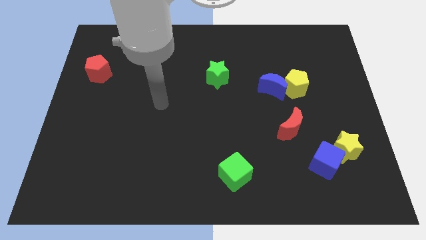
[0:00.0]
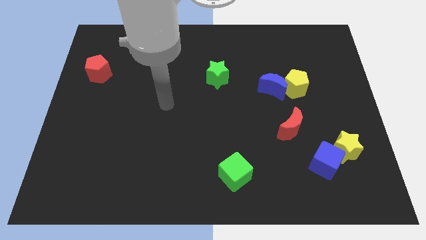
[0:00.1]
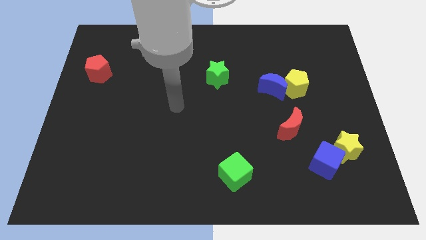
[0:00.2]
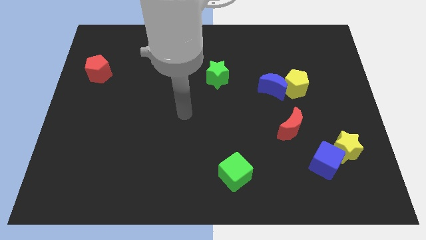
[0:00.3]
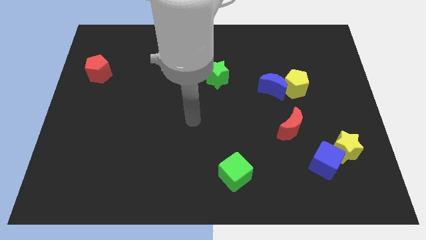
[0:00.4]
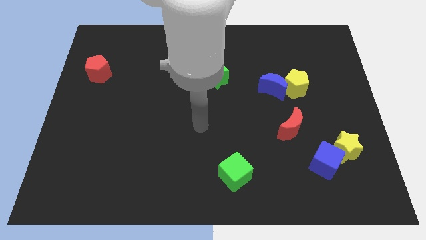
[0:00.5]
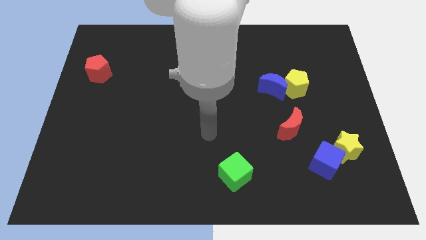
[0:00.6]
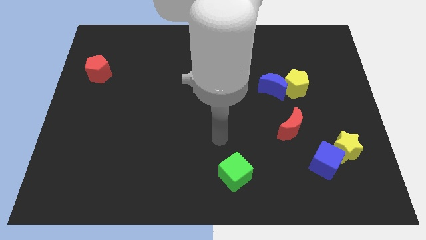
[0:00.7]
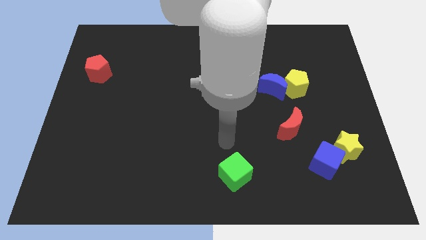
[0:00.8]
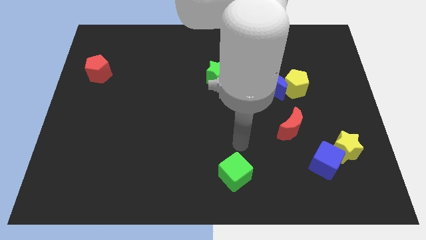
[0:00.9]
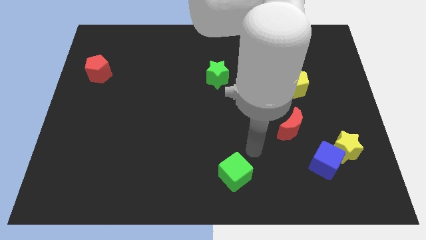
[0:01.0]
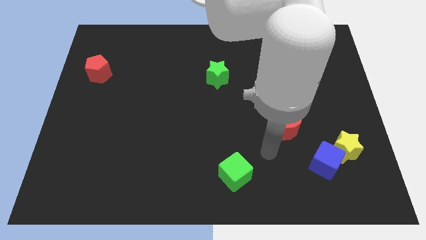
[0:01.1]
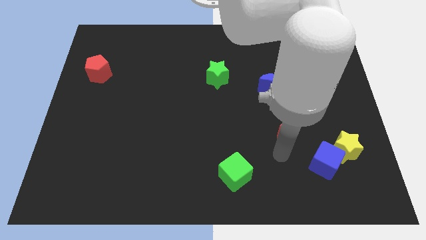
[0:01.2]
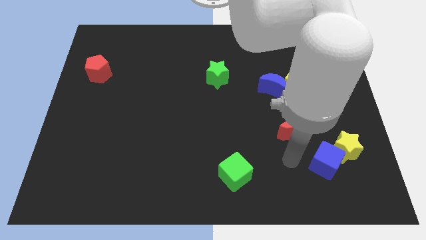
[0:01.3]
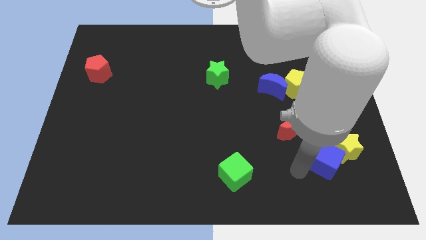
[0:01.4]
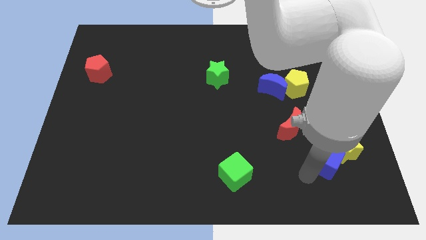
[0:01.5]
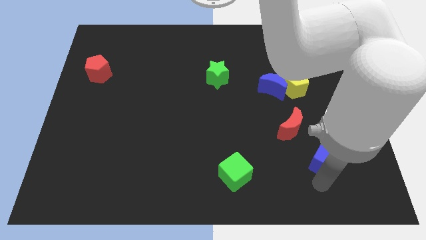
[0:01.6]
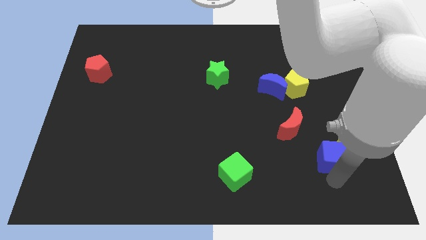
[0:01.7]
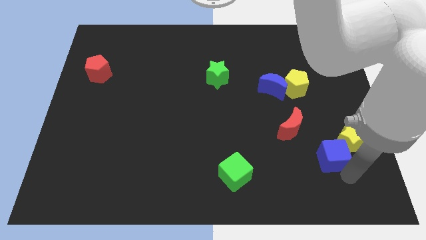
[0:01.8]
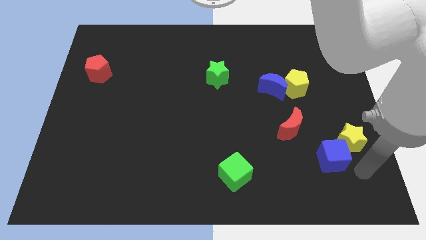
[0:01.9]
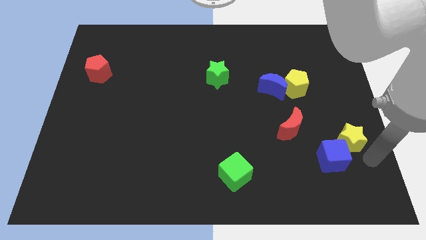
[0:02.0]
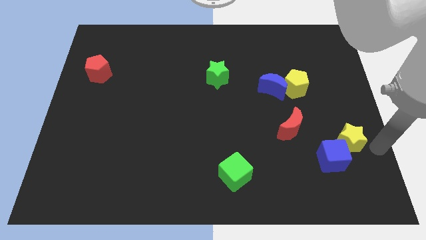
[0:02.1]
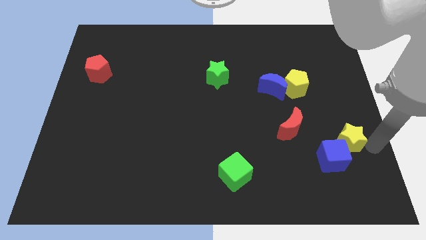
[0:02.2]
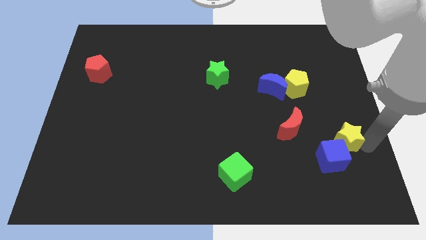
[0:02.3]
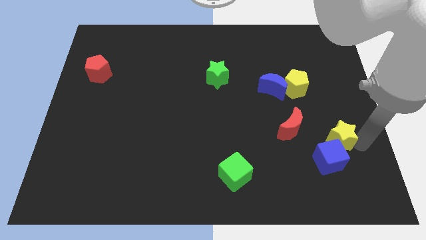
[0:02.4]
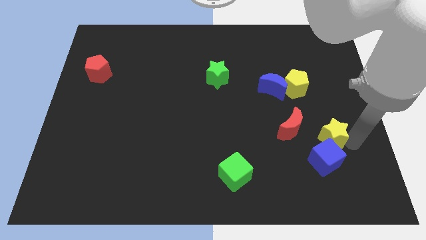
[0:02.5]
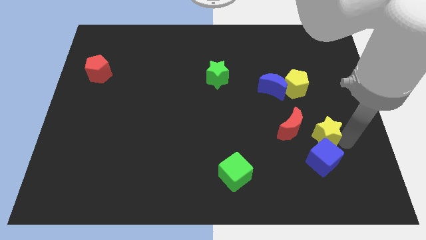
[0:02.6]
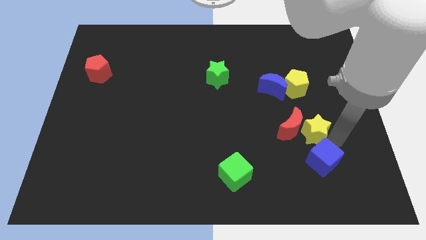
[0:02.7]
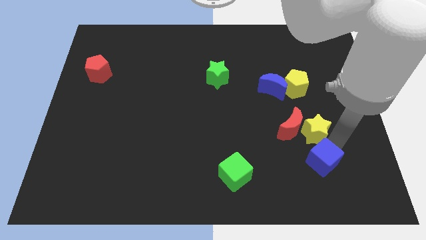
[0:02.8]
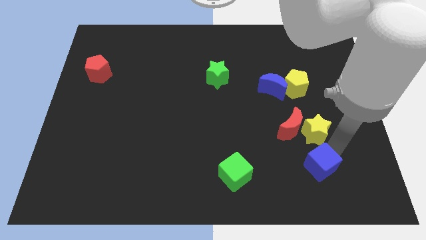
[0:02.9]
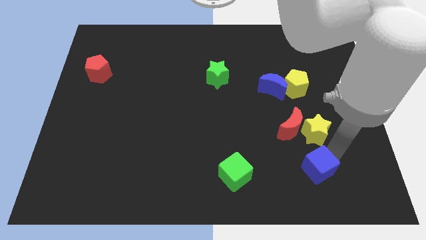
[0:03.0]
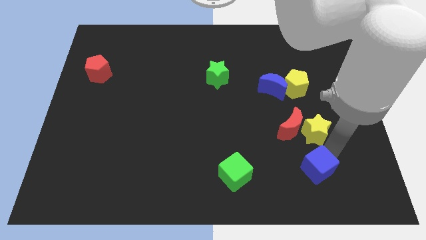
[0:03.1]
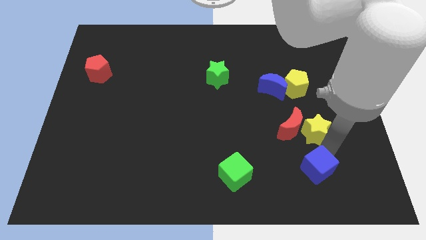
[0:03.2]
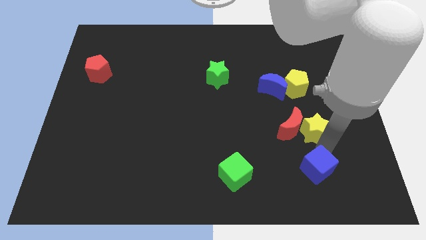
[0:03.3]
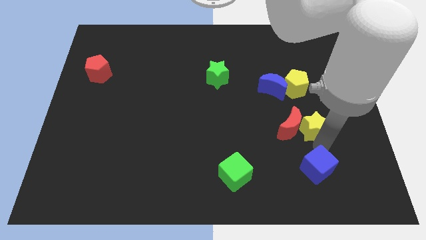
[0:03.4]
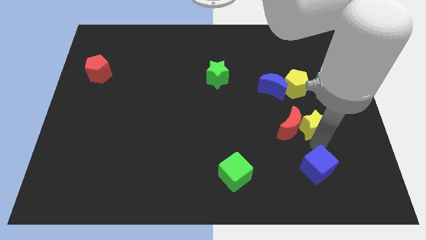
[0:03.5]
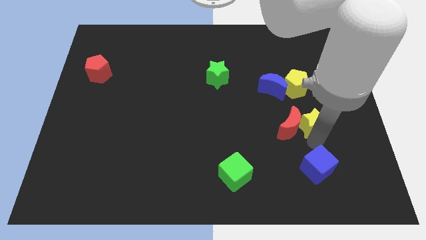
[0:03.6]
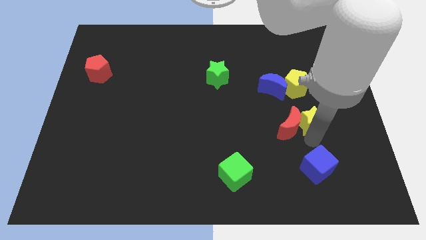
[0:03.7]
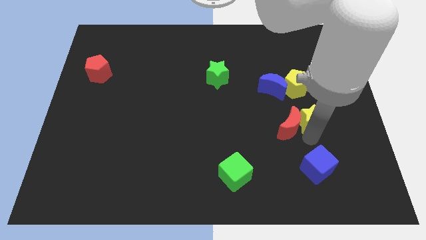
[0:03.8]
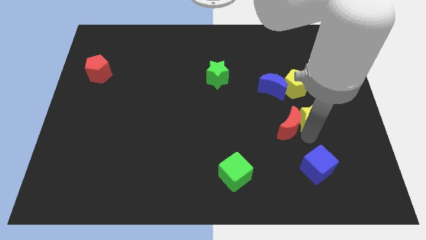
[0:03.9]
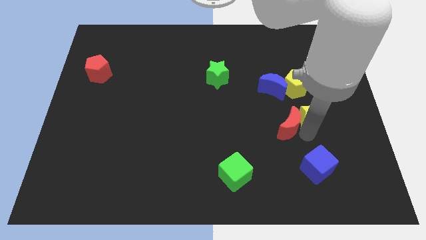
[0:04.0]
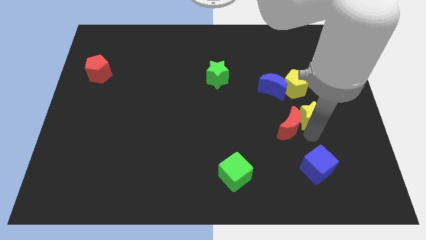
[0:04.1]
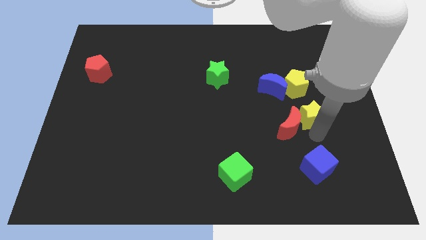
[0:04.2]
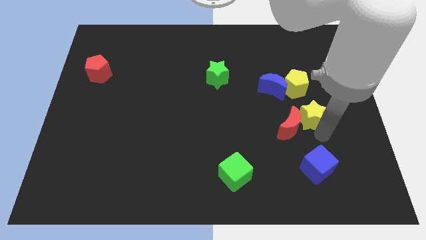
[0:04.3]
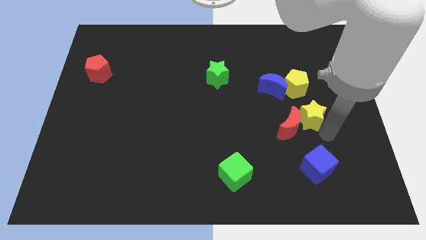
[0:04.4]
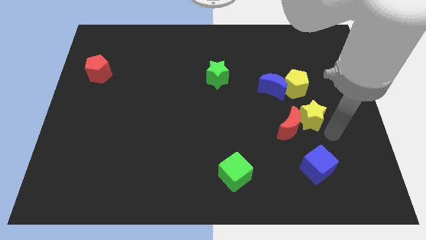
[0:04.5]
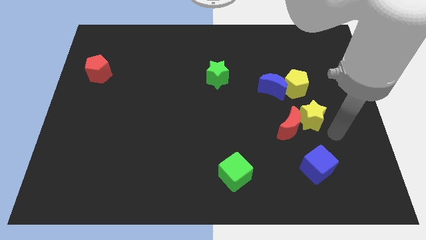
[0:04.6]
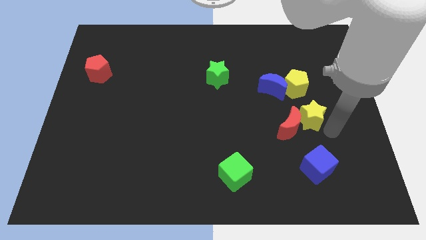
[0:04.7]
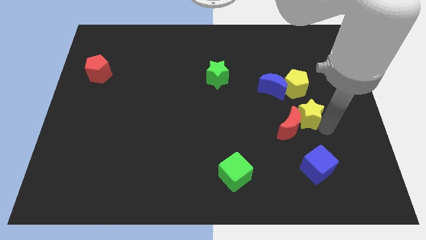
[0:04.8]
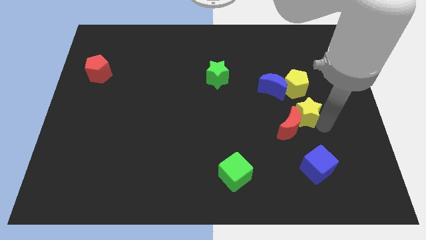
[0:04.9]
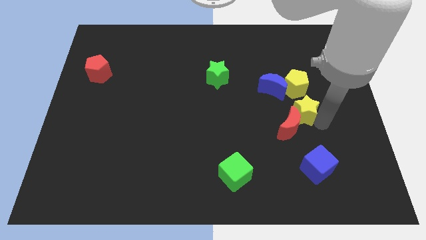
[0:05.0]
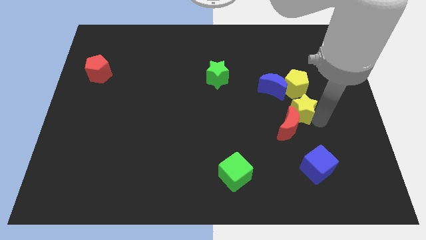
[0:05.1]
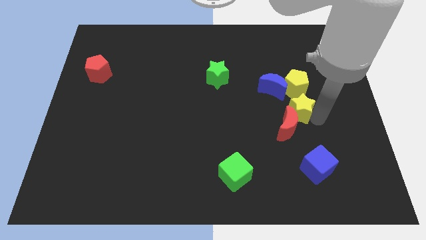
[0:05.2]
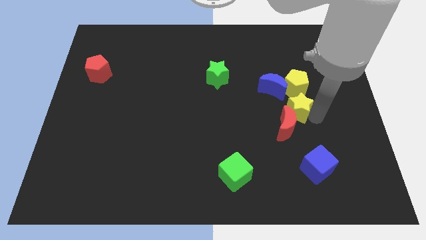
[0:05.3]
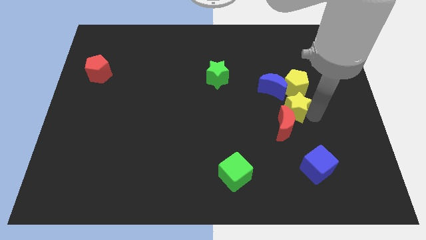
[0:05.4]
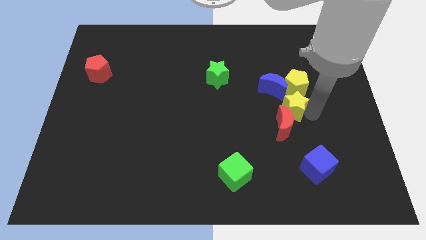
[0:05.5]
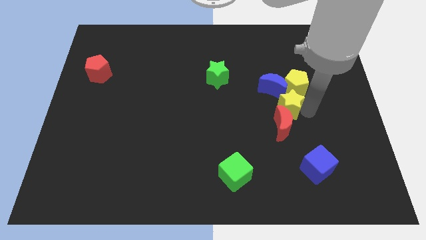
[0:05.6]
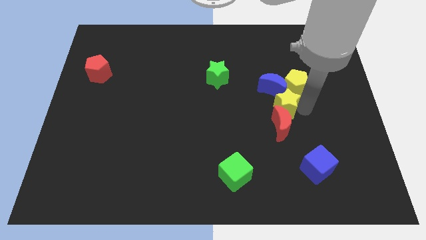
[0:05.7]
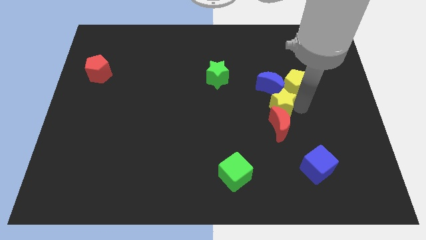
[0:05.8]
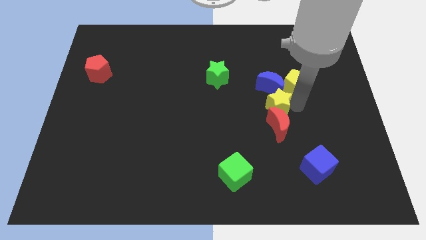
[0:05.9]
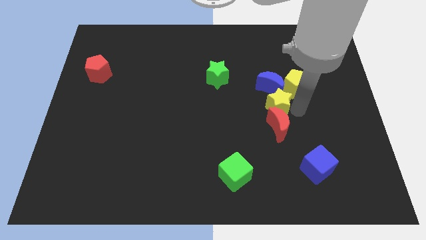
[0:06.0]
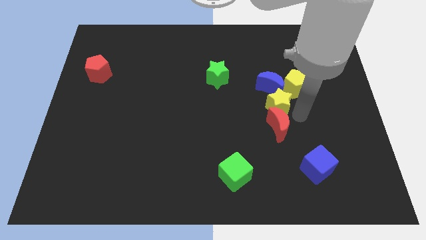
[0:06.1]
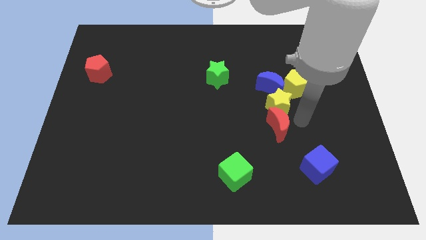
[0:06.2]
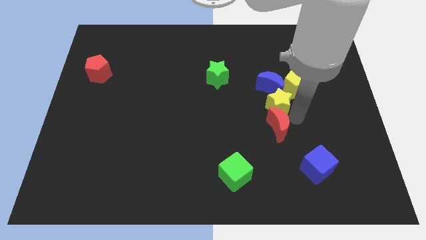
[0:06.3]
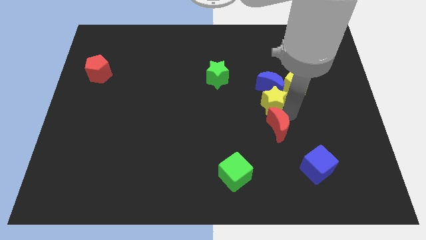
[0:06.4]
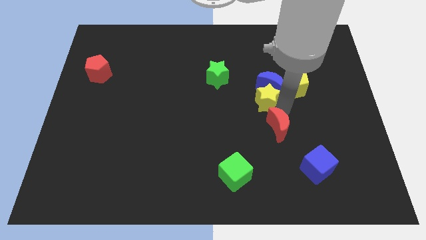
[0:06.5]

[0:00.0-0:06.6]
move the yellow star up and left diagonally

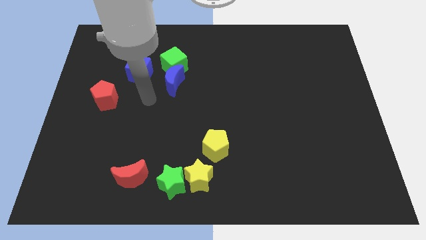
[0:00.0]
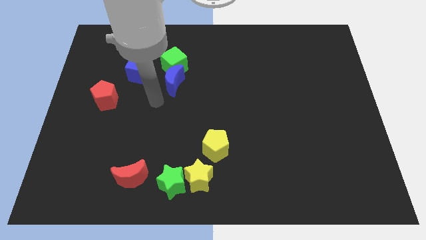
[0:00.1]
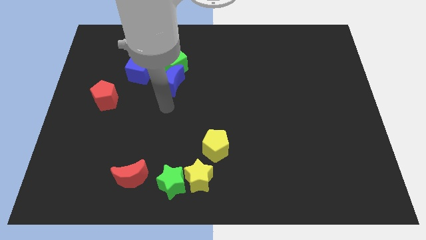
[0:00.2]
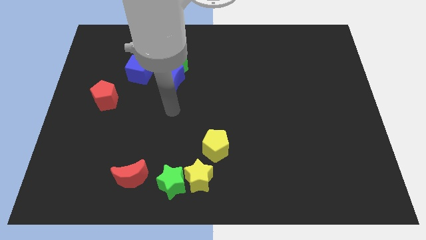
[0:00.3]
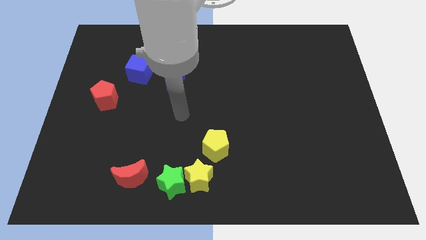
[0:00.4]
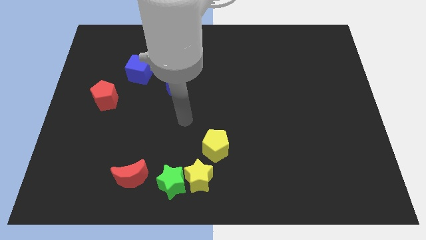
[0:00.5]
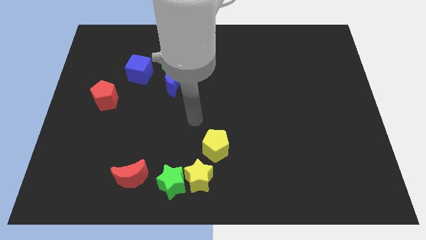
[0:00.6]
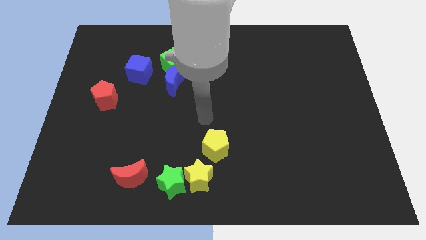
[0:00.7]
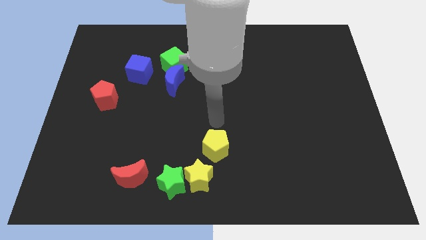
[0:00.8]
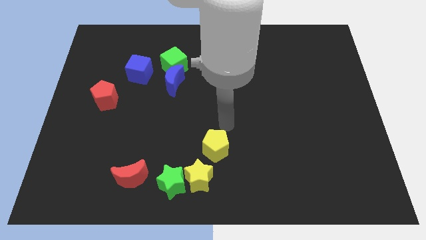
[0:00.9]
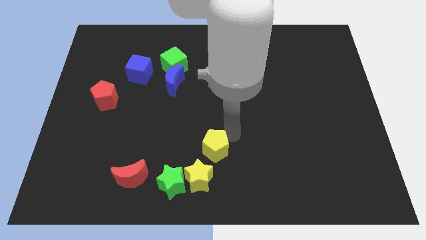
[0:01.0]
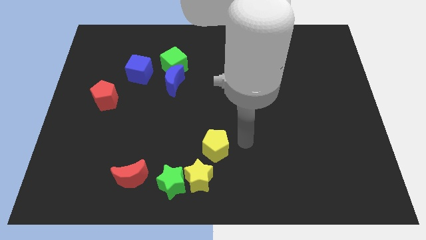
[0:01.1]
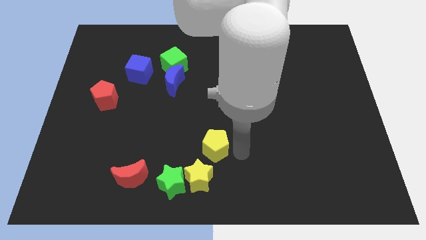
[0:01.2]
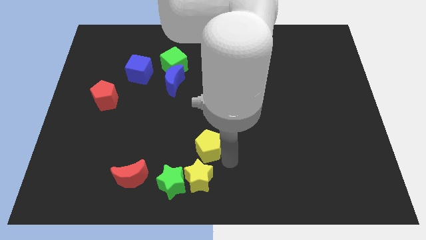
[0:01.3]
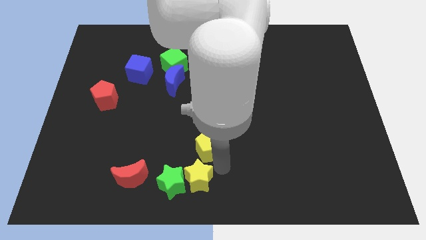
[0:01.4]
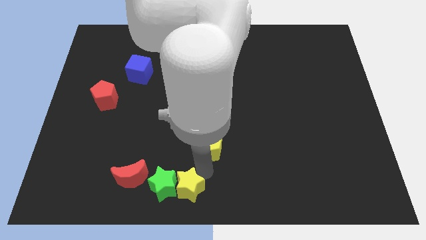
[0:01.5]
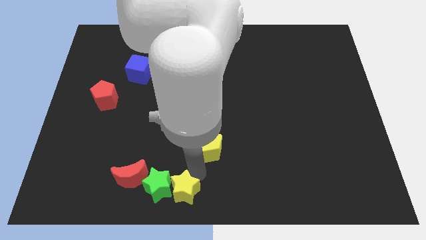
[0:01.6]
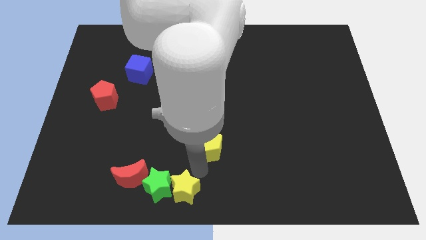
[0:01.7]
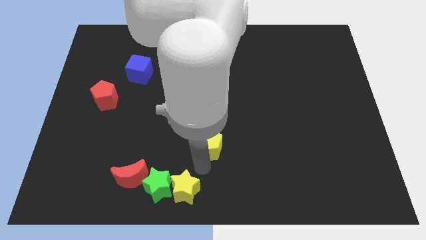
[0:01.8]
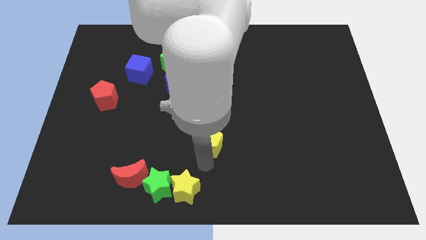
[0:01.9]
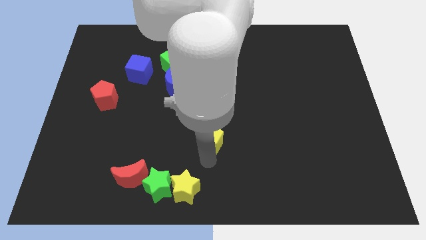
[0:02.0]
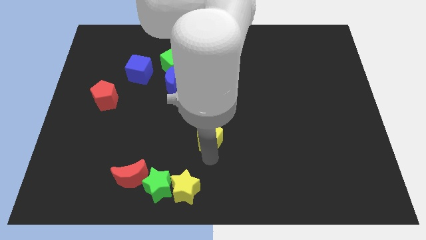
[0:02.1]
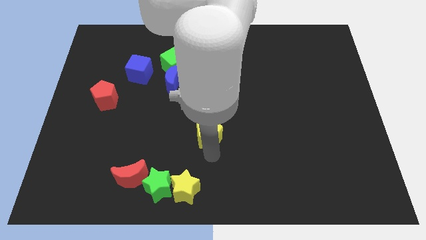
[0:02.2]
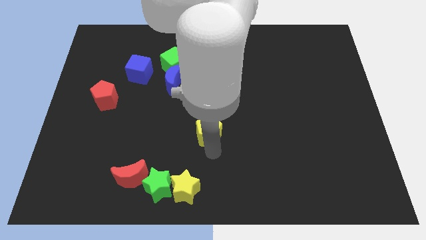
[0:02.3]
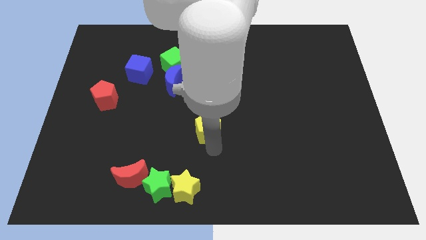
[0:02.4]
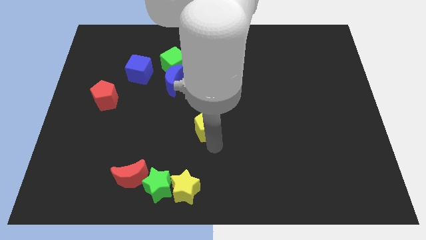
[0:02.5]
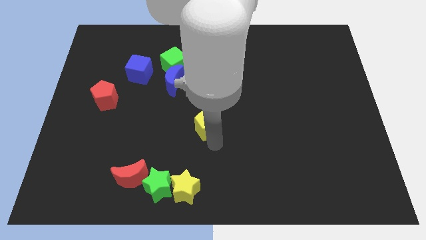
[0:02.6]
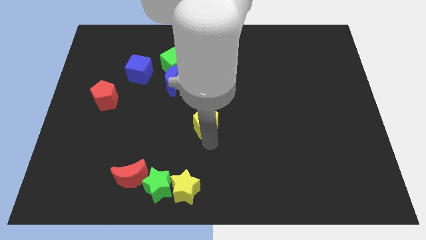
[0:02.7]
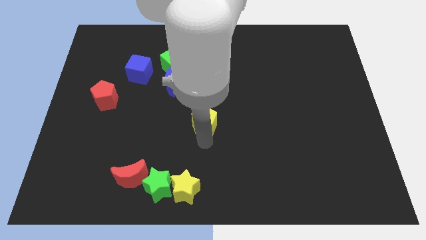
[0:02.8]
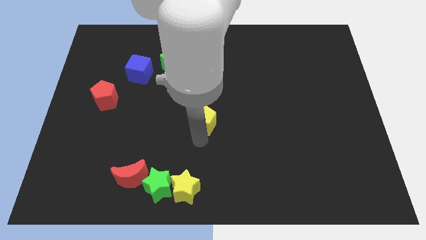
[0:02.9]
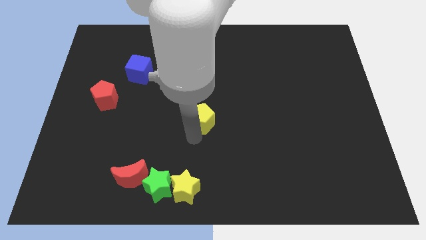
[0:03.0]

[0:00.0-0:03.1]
slightly push the yellow pentagon up
